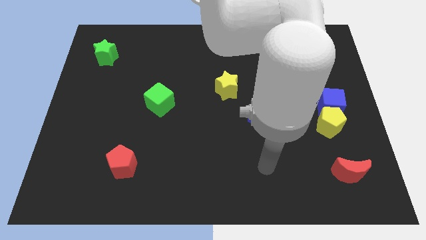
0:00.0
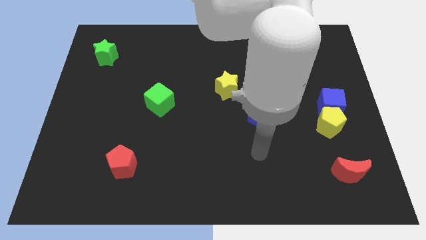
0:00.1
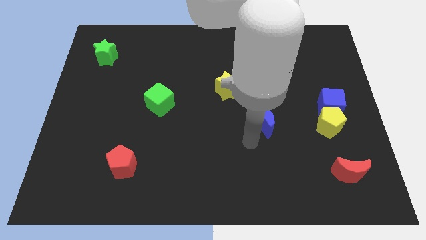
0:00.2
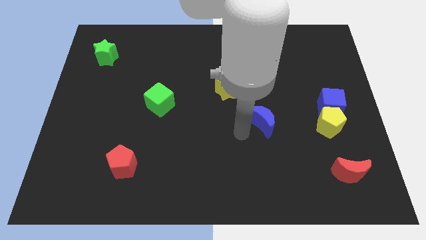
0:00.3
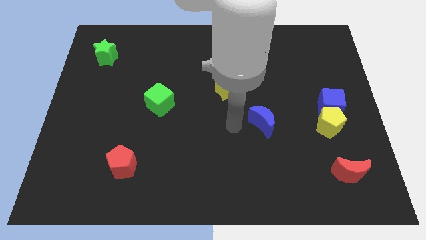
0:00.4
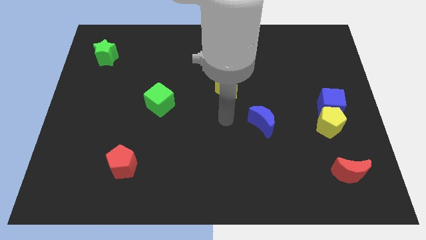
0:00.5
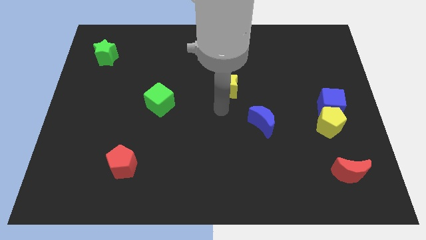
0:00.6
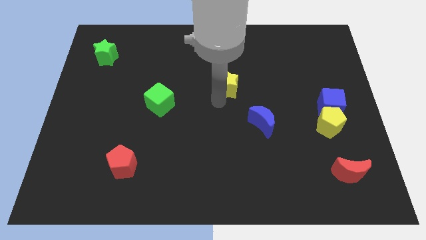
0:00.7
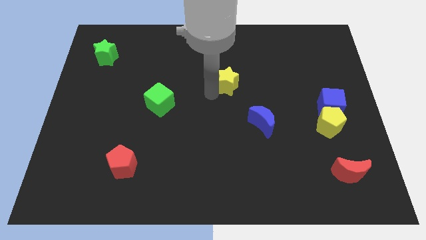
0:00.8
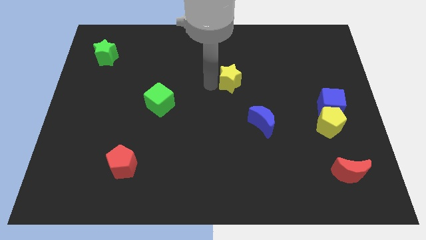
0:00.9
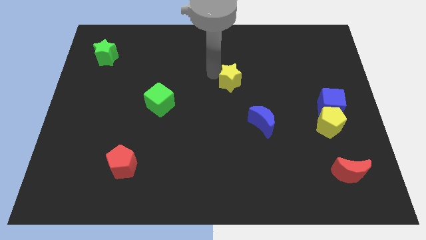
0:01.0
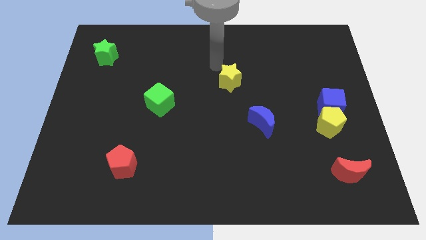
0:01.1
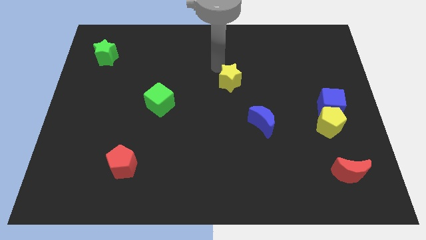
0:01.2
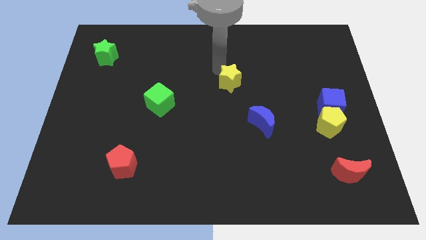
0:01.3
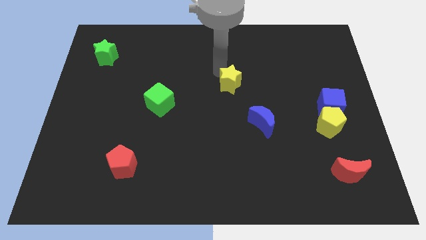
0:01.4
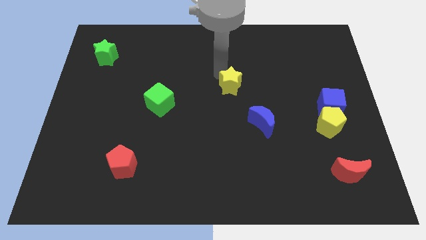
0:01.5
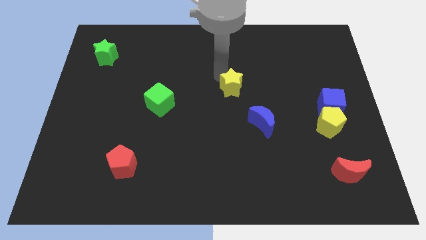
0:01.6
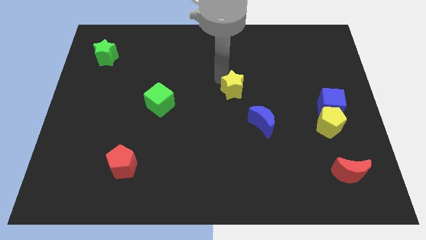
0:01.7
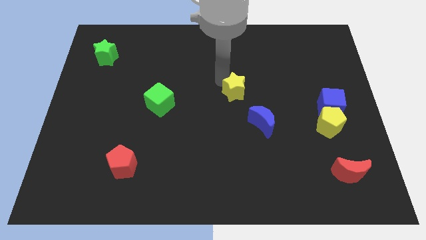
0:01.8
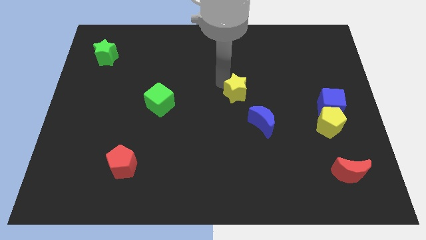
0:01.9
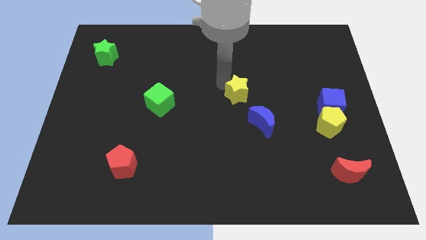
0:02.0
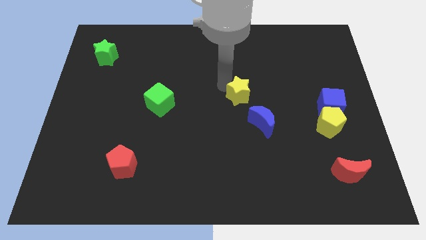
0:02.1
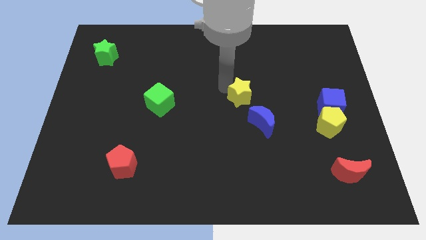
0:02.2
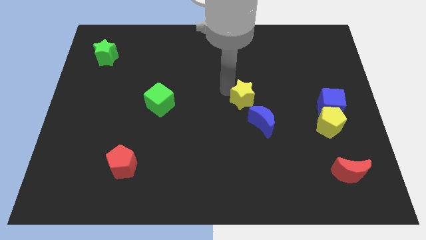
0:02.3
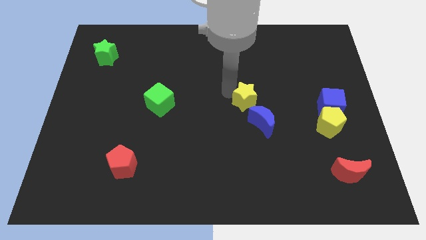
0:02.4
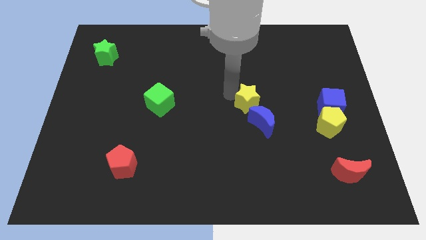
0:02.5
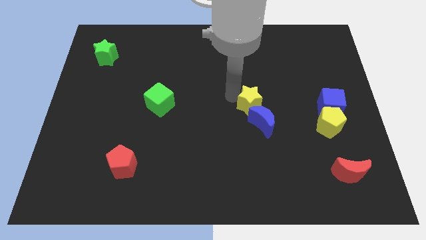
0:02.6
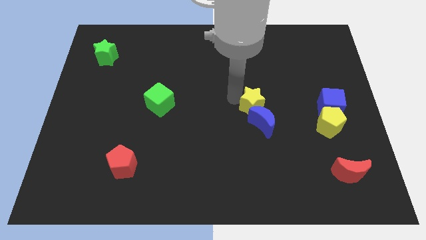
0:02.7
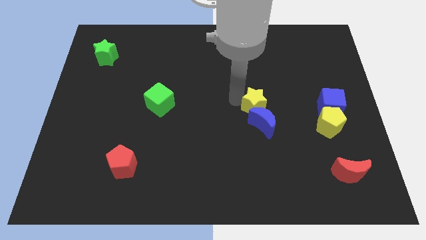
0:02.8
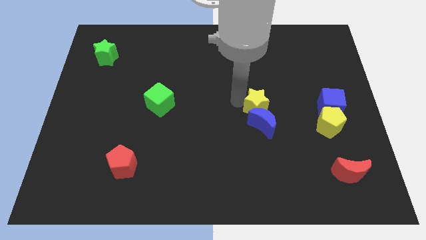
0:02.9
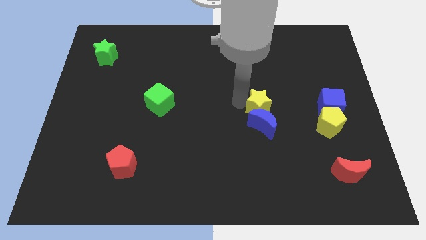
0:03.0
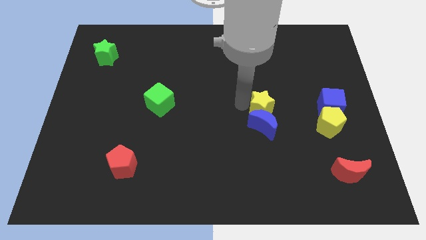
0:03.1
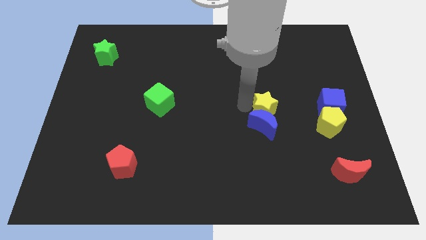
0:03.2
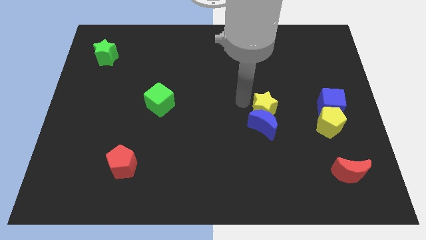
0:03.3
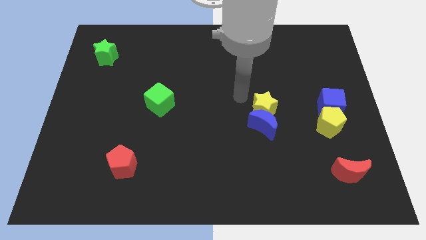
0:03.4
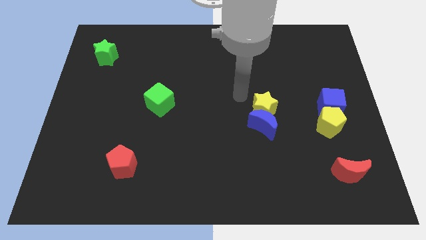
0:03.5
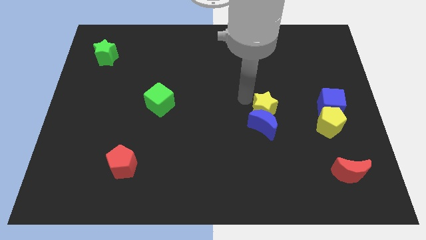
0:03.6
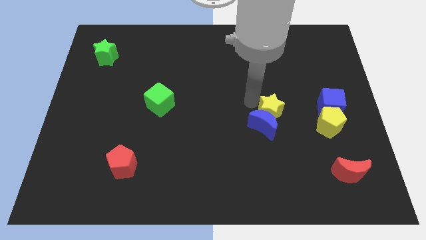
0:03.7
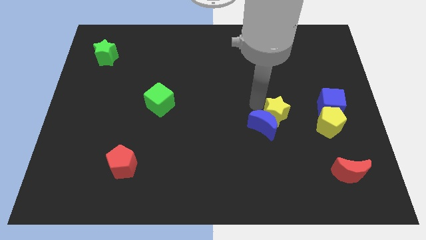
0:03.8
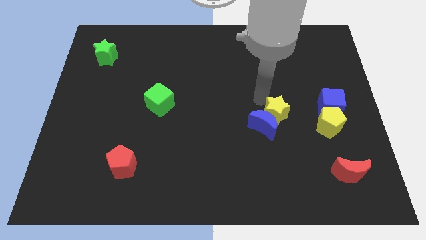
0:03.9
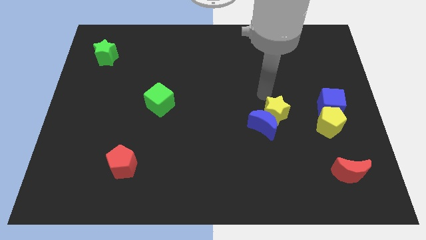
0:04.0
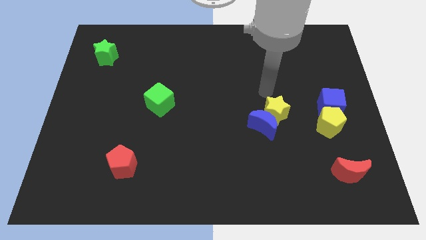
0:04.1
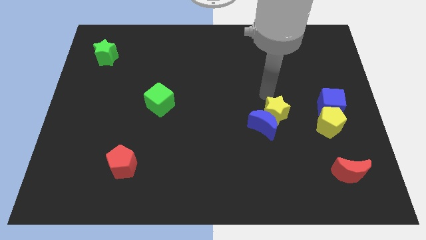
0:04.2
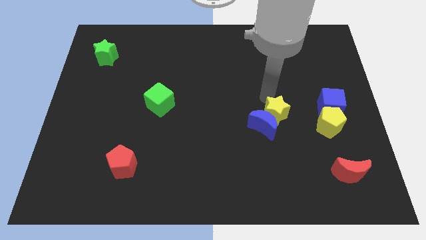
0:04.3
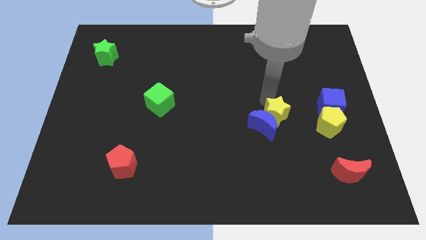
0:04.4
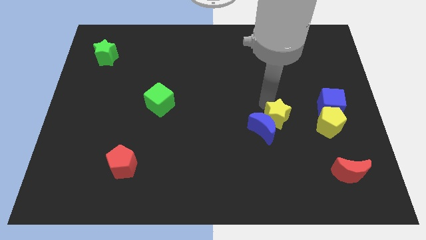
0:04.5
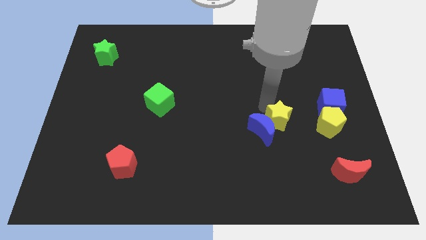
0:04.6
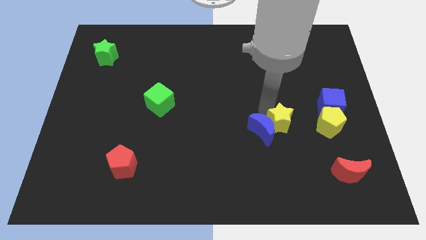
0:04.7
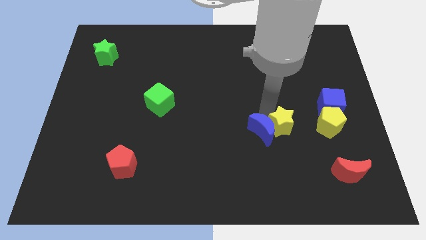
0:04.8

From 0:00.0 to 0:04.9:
slide the yellow star to the bottom right of the blue moon

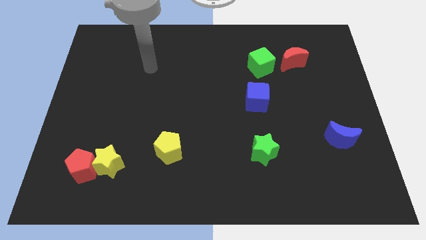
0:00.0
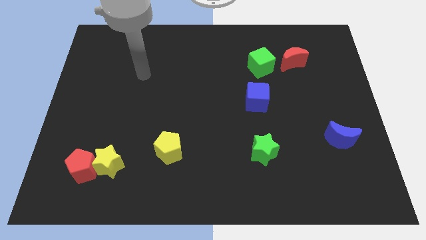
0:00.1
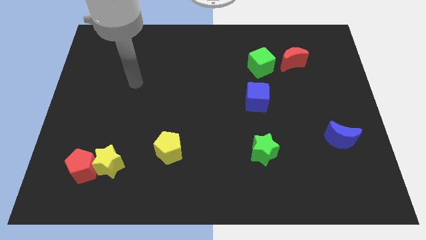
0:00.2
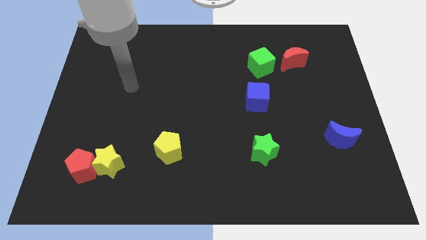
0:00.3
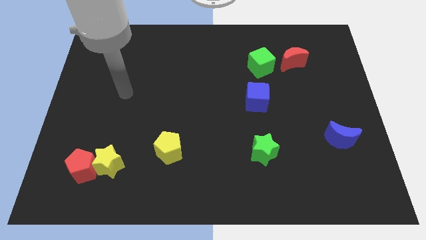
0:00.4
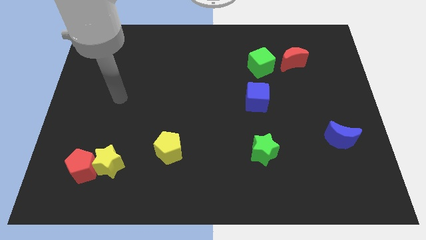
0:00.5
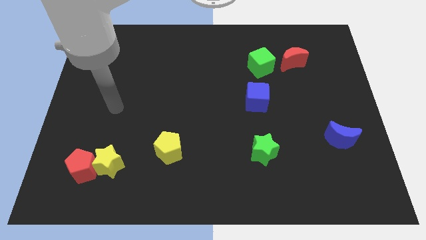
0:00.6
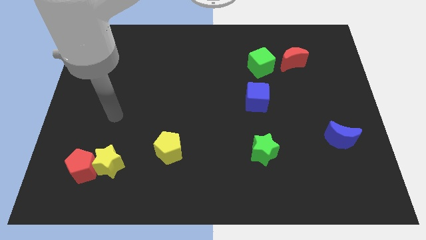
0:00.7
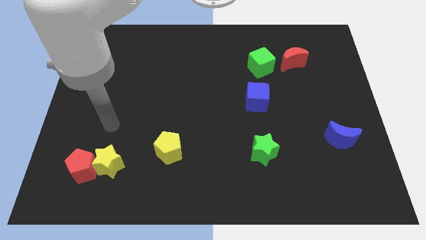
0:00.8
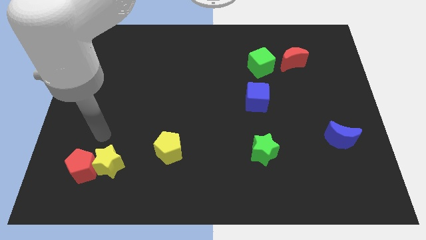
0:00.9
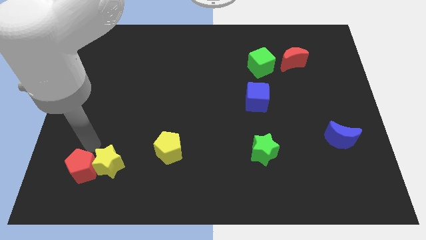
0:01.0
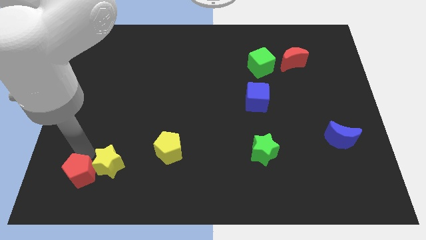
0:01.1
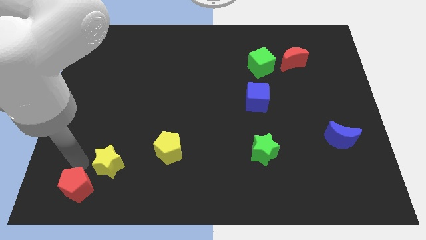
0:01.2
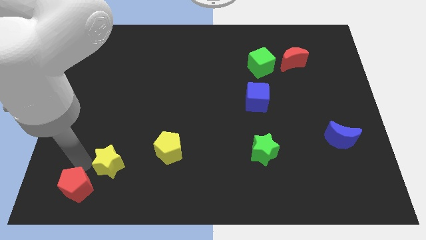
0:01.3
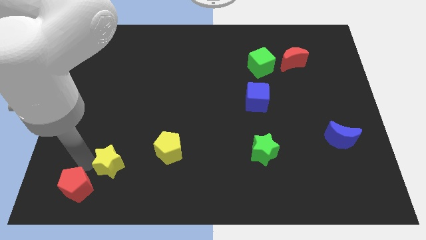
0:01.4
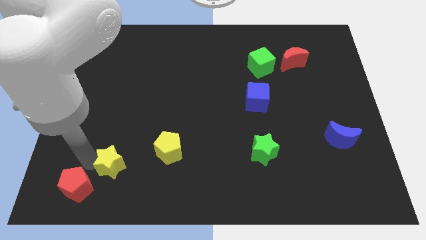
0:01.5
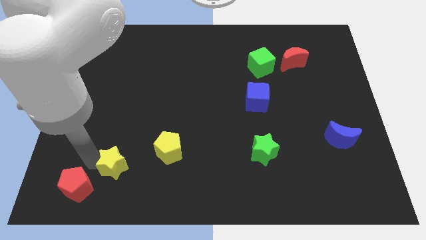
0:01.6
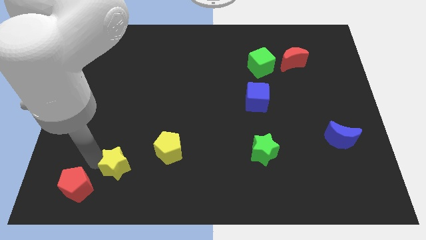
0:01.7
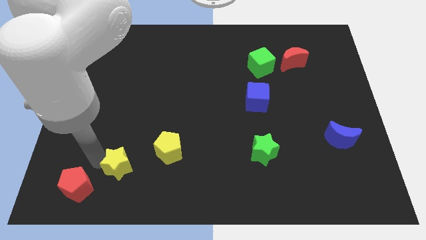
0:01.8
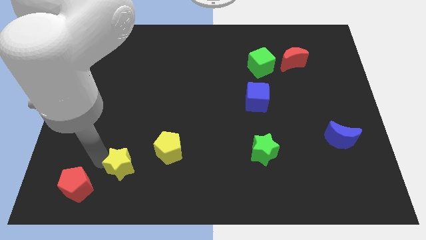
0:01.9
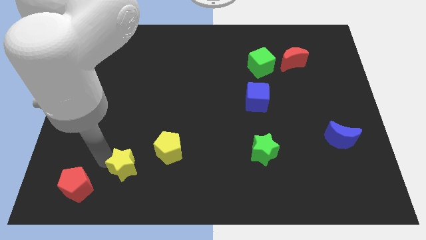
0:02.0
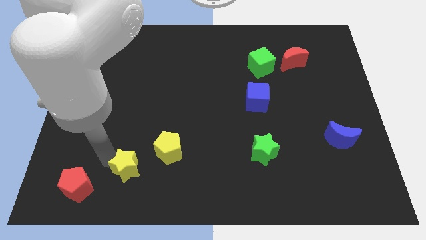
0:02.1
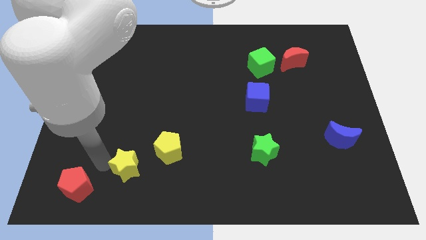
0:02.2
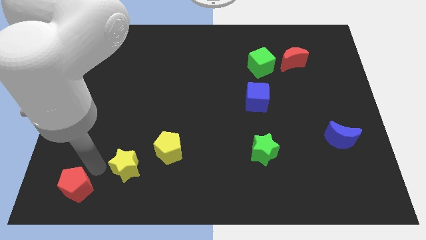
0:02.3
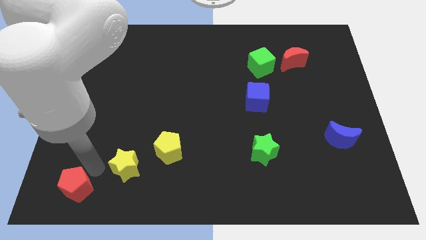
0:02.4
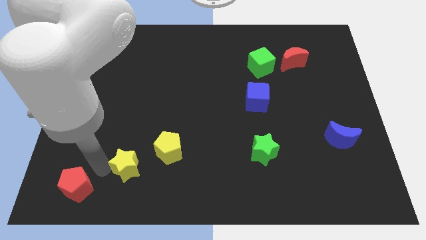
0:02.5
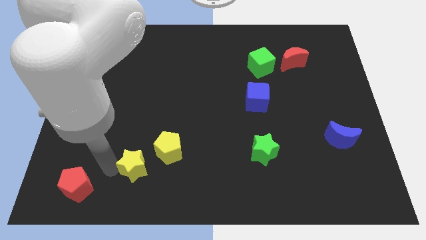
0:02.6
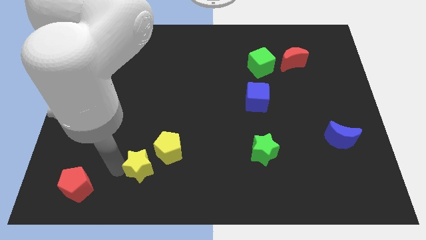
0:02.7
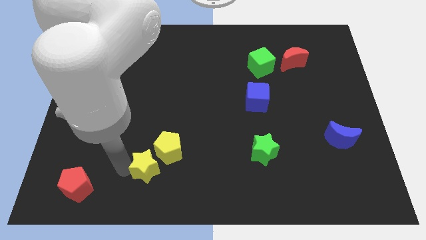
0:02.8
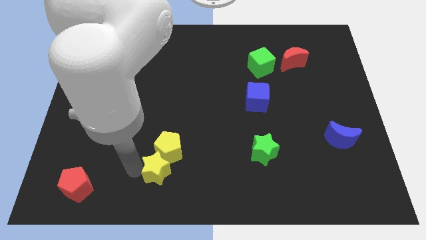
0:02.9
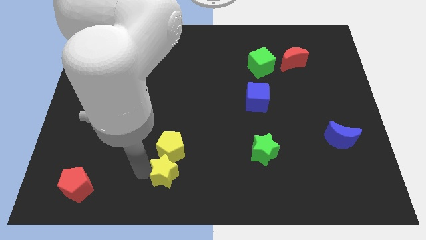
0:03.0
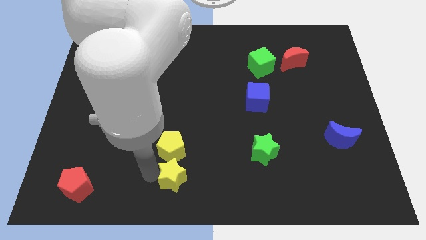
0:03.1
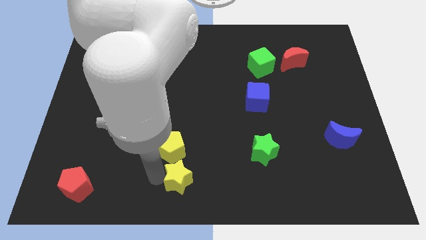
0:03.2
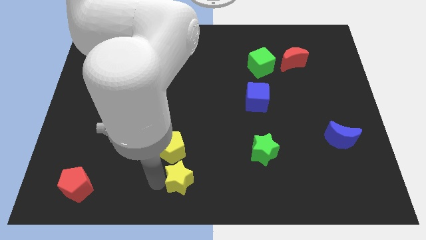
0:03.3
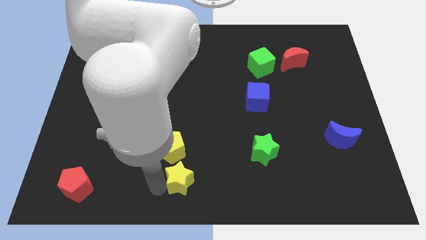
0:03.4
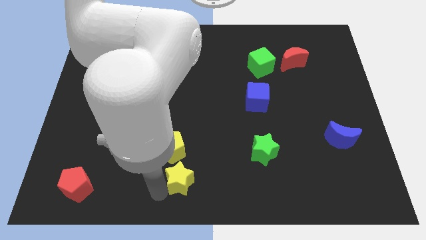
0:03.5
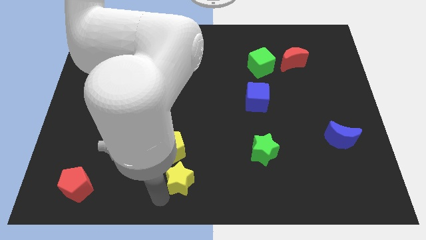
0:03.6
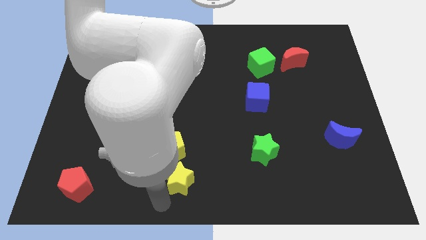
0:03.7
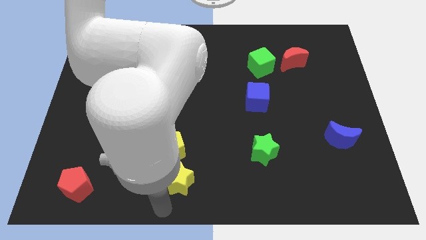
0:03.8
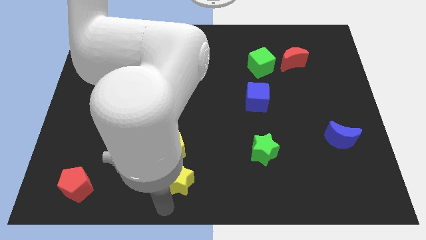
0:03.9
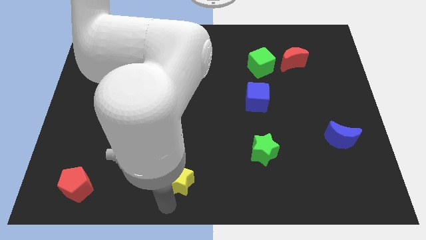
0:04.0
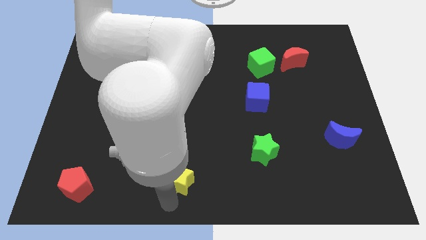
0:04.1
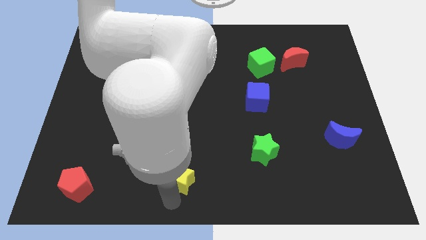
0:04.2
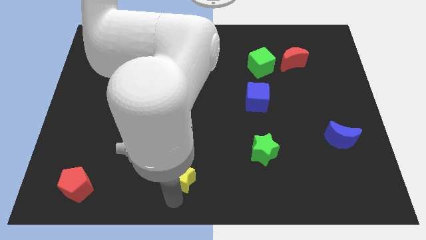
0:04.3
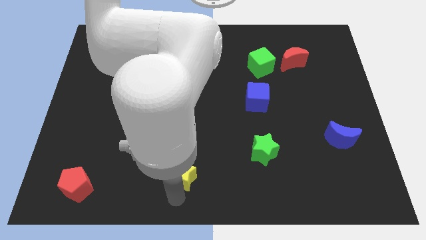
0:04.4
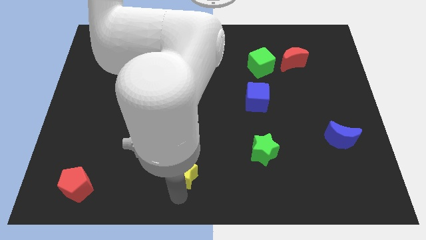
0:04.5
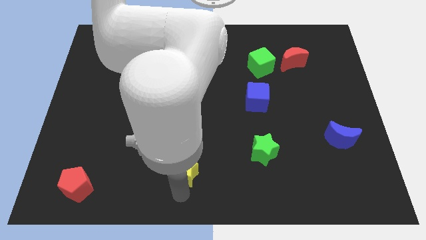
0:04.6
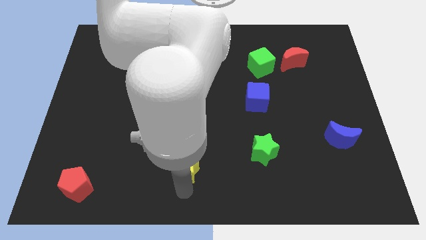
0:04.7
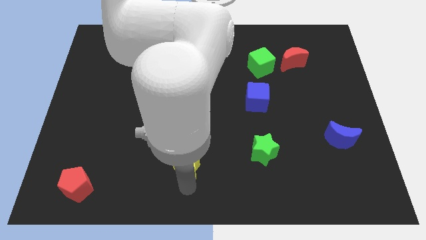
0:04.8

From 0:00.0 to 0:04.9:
push the yellow star just right of the yellow pentagon
